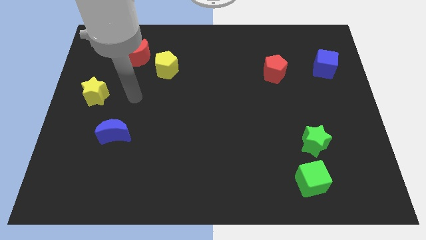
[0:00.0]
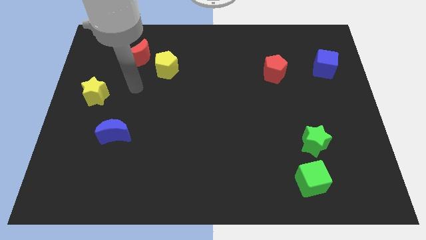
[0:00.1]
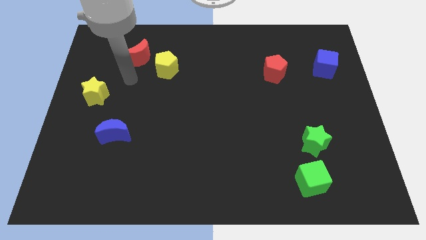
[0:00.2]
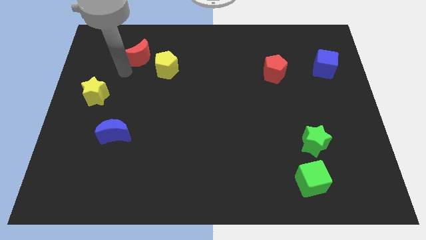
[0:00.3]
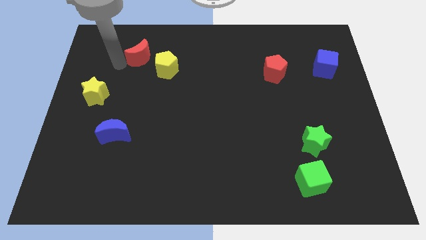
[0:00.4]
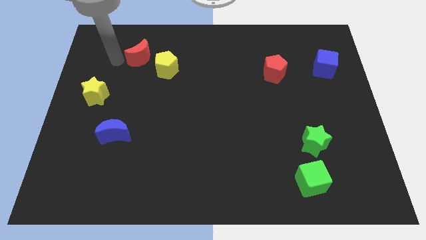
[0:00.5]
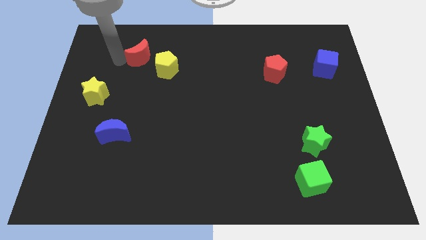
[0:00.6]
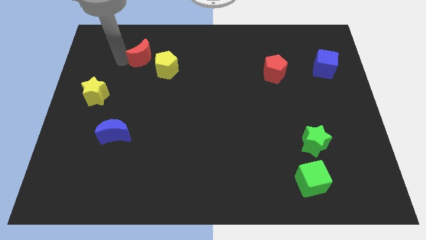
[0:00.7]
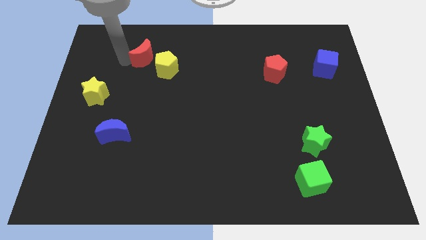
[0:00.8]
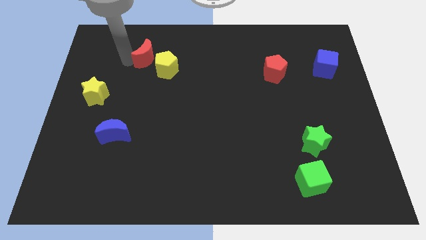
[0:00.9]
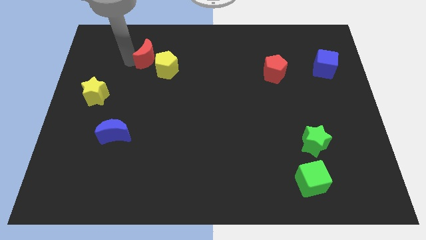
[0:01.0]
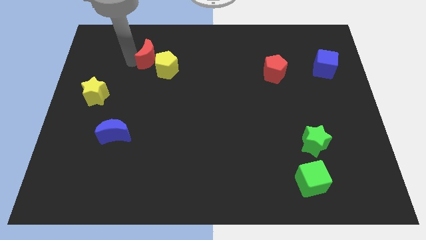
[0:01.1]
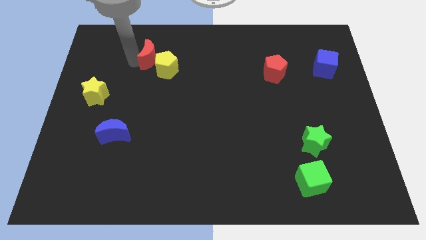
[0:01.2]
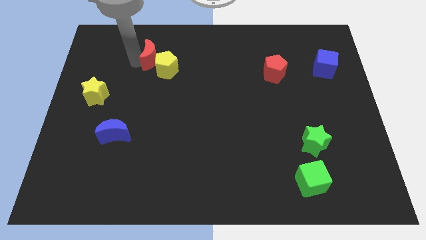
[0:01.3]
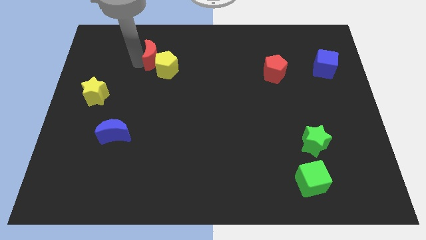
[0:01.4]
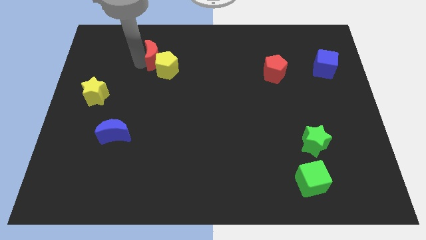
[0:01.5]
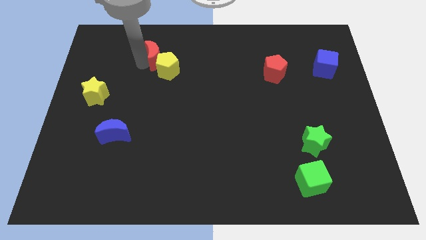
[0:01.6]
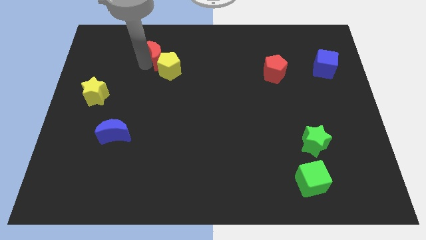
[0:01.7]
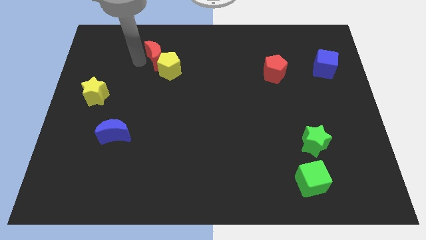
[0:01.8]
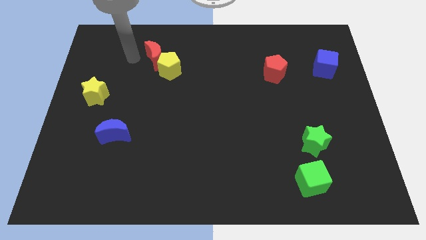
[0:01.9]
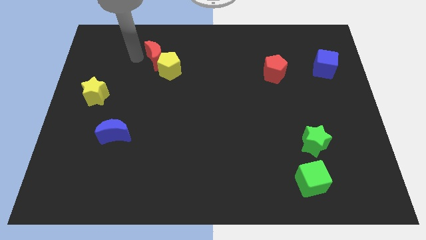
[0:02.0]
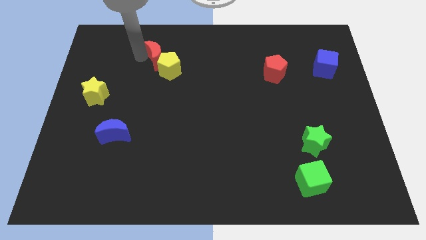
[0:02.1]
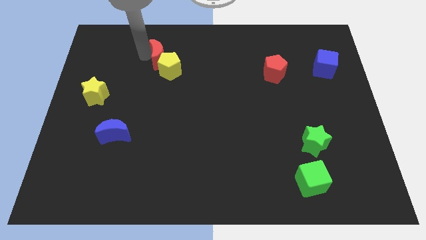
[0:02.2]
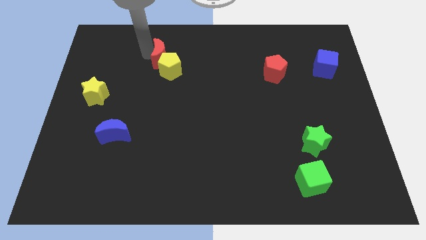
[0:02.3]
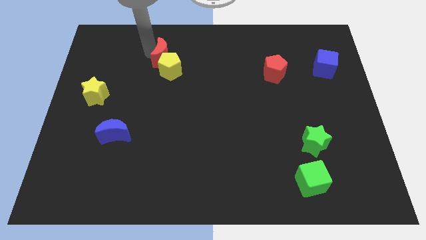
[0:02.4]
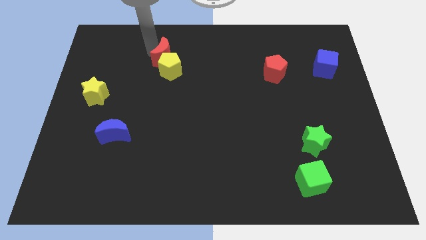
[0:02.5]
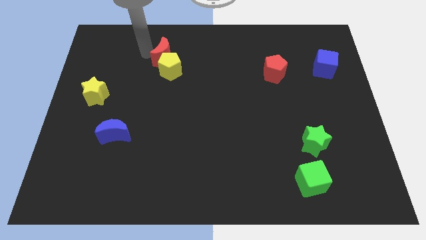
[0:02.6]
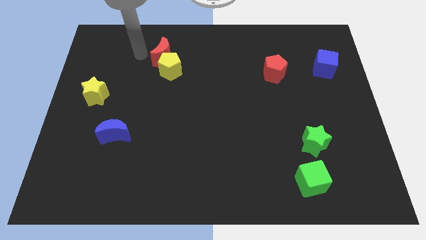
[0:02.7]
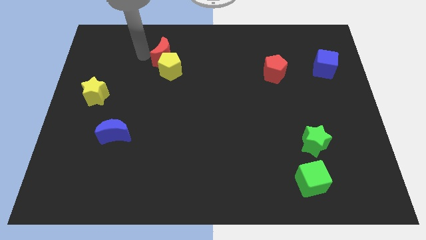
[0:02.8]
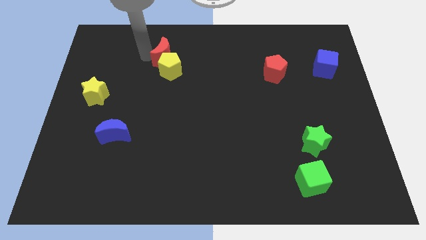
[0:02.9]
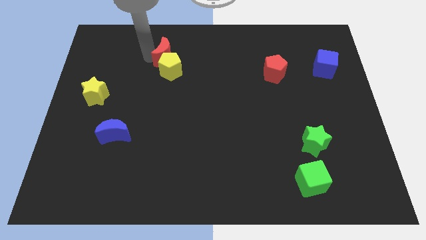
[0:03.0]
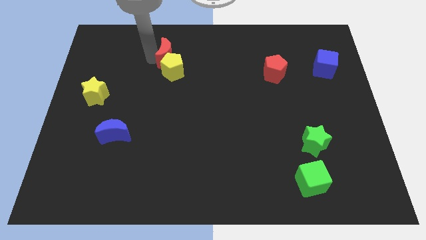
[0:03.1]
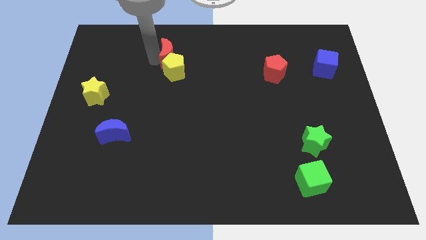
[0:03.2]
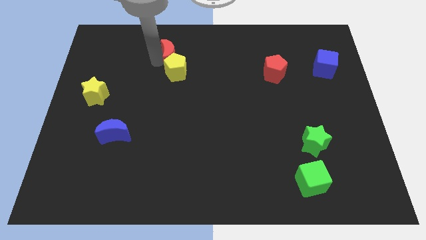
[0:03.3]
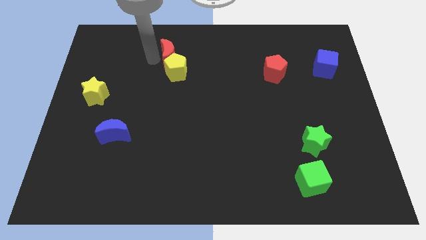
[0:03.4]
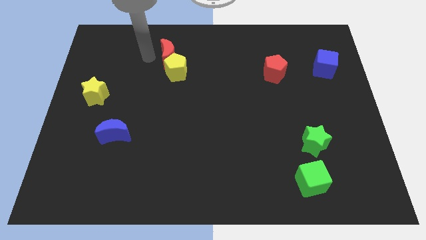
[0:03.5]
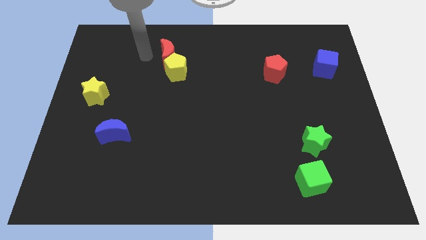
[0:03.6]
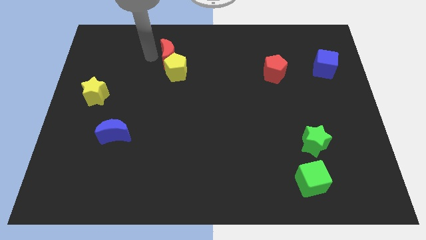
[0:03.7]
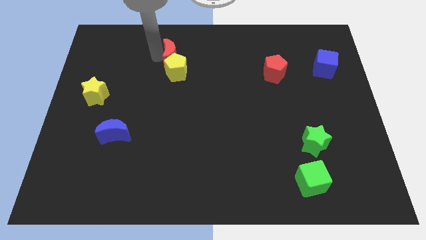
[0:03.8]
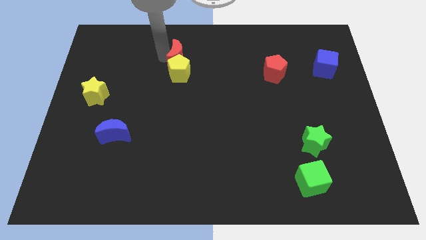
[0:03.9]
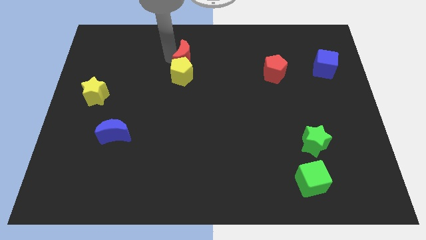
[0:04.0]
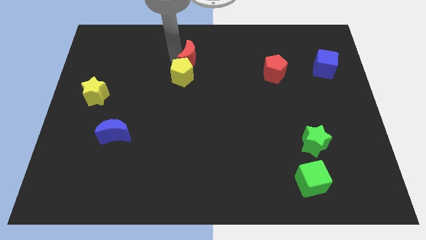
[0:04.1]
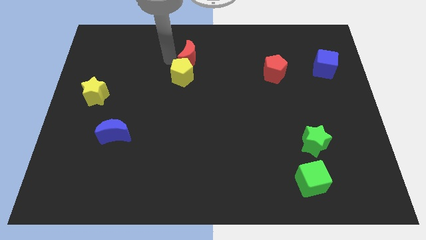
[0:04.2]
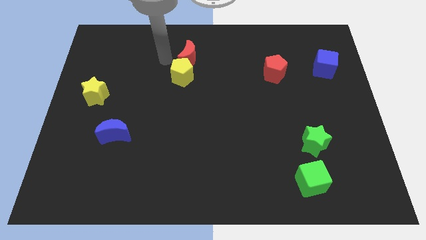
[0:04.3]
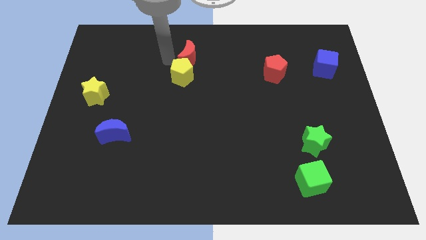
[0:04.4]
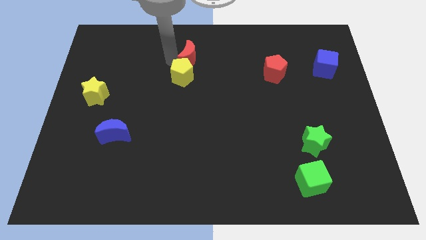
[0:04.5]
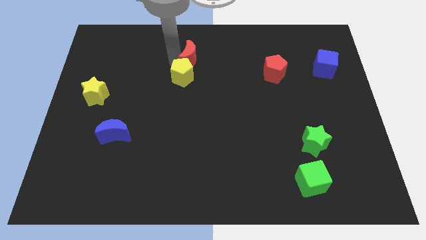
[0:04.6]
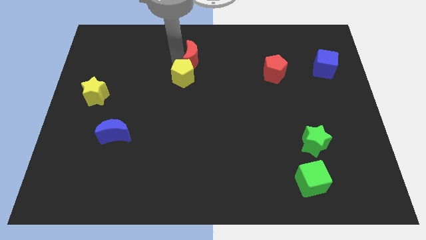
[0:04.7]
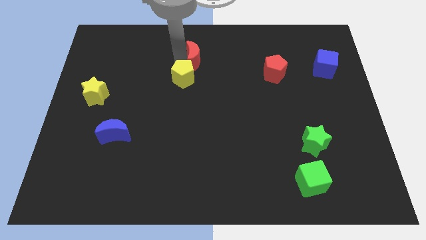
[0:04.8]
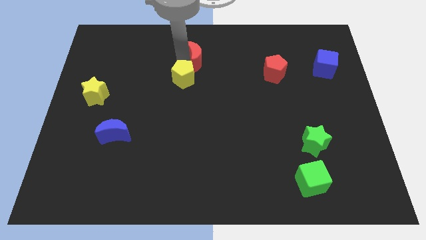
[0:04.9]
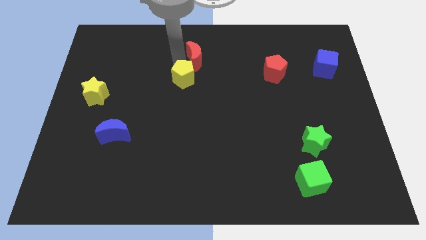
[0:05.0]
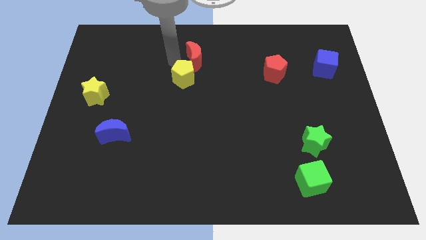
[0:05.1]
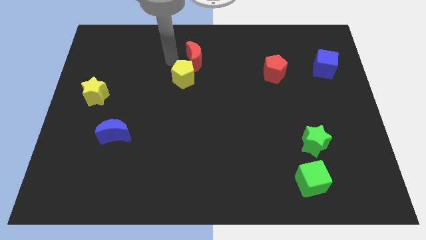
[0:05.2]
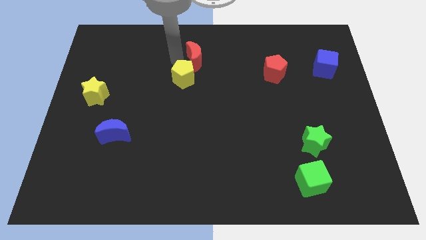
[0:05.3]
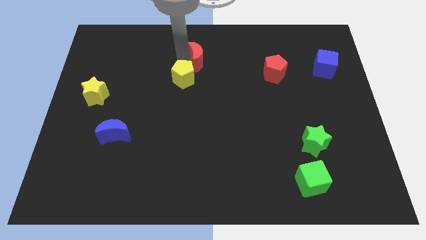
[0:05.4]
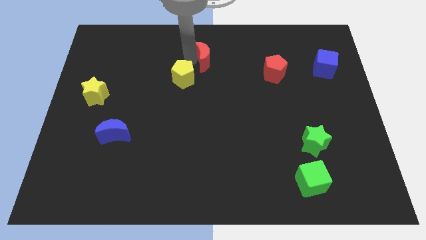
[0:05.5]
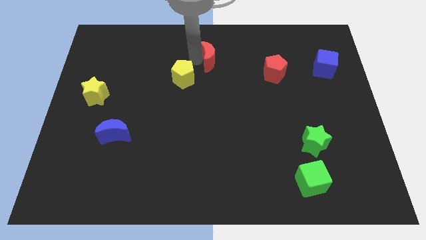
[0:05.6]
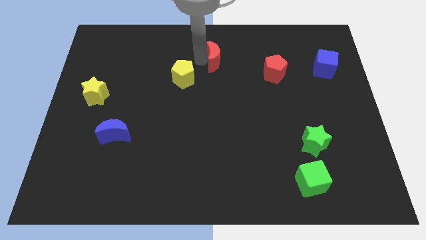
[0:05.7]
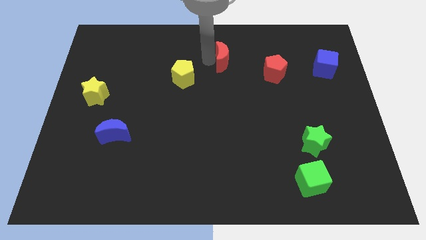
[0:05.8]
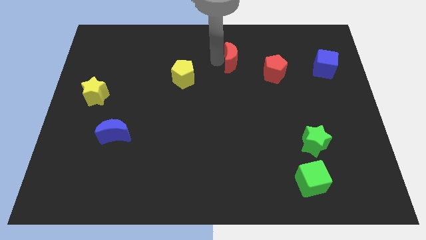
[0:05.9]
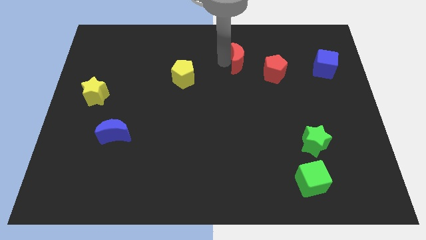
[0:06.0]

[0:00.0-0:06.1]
move the red moon to the top left side of the red pentagon

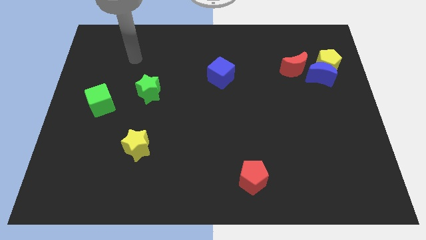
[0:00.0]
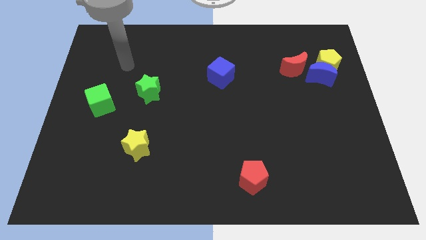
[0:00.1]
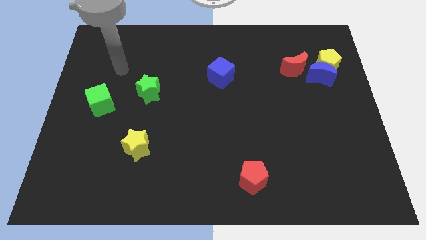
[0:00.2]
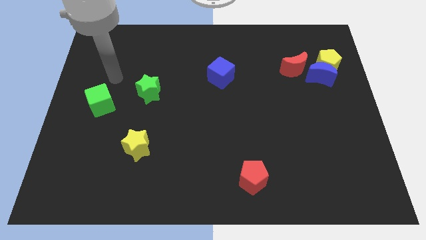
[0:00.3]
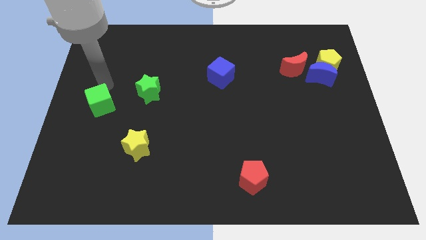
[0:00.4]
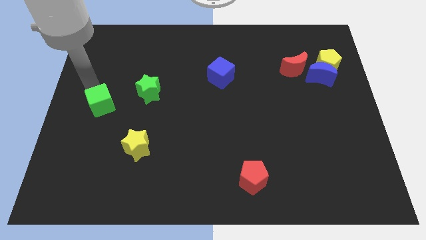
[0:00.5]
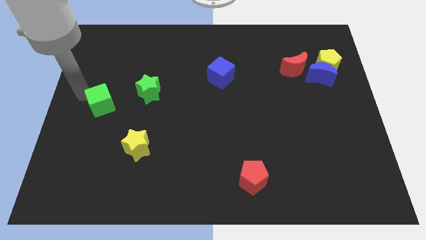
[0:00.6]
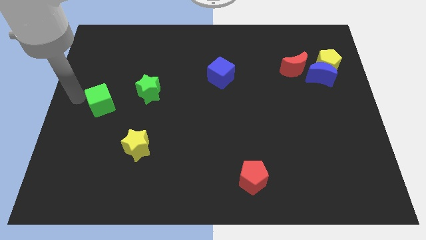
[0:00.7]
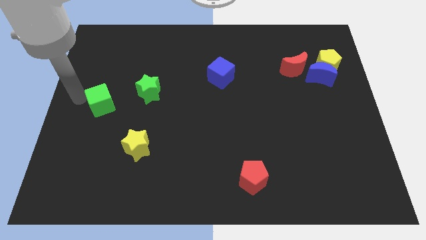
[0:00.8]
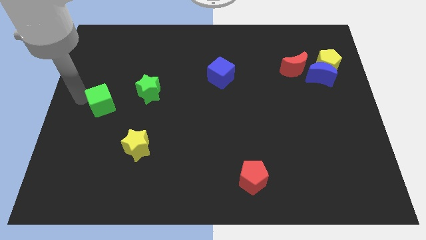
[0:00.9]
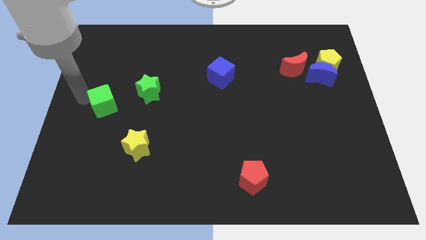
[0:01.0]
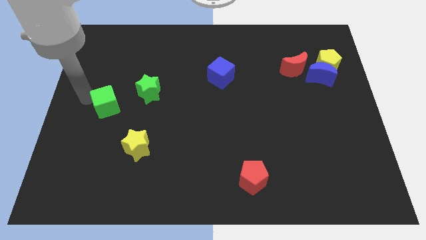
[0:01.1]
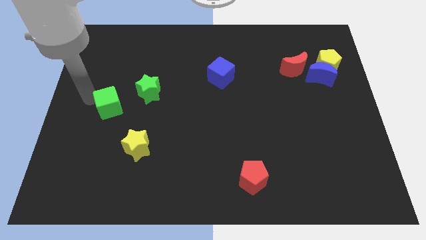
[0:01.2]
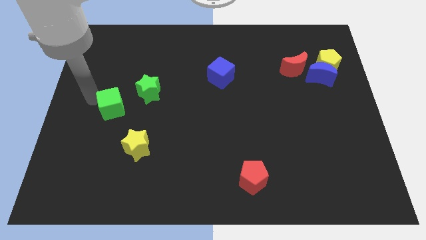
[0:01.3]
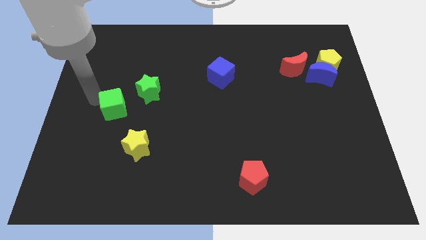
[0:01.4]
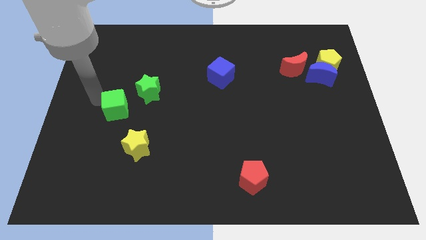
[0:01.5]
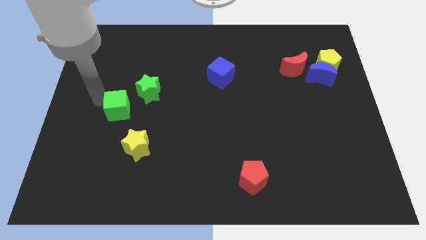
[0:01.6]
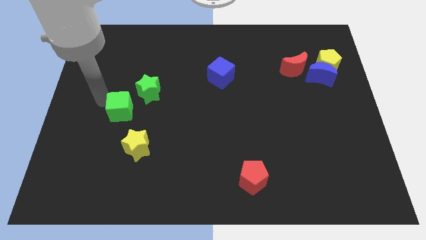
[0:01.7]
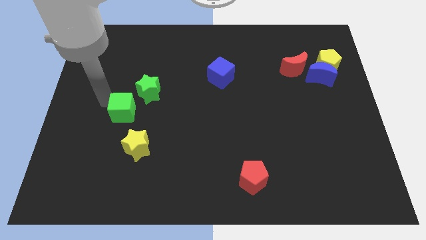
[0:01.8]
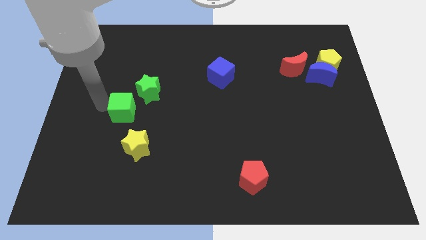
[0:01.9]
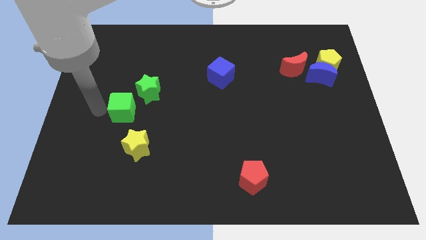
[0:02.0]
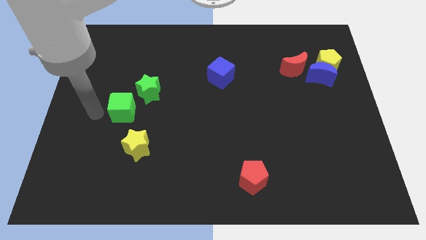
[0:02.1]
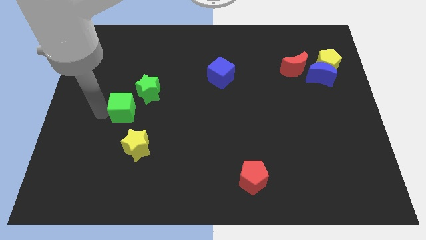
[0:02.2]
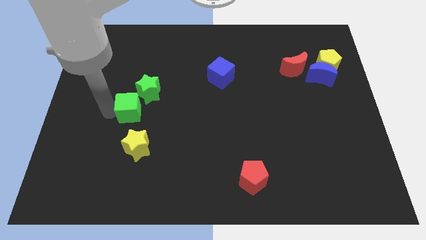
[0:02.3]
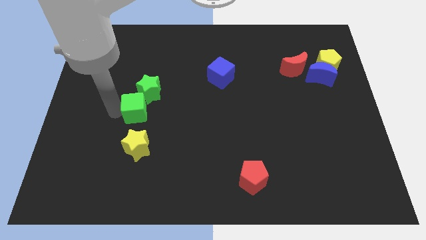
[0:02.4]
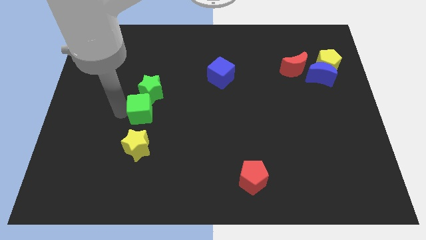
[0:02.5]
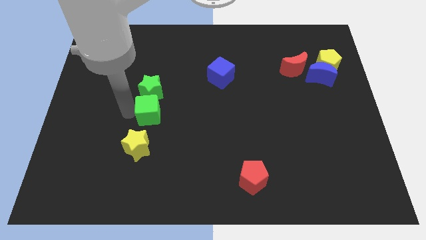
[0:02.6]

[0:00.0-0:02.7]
move the green cube to the bottom right side of the green star
